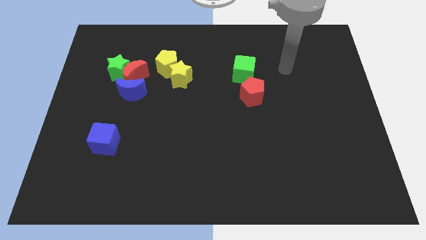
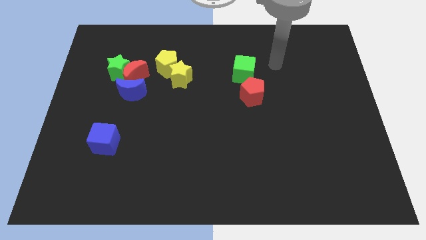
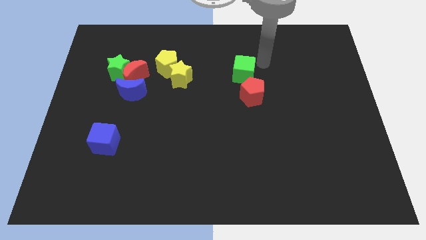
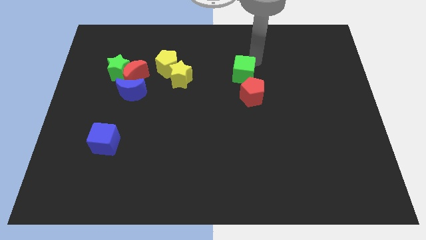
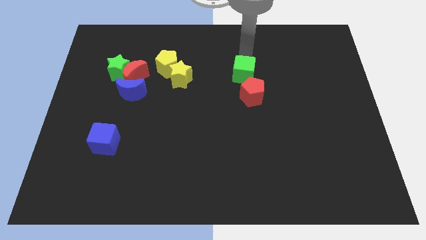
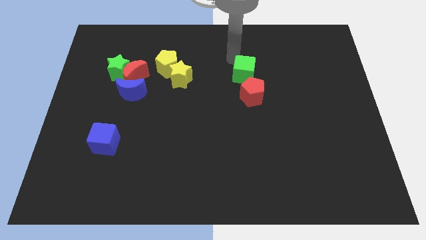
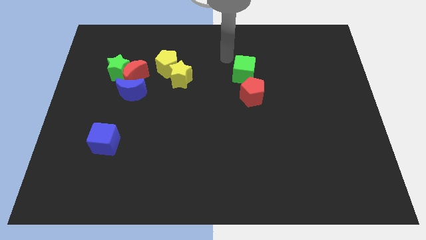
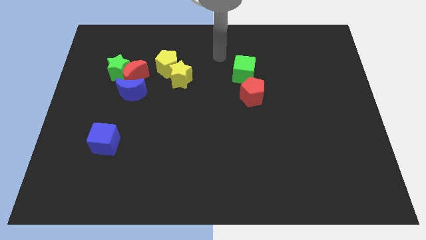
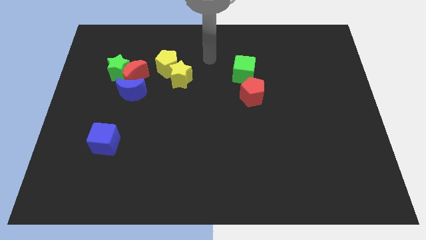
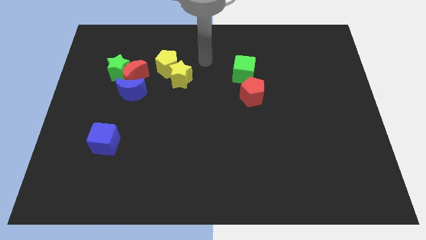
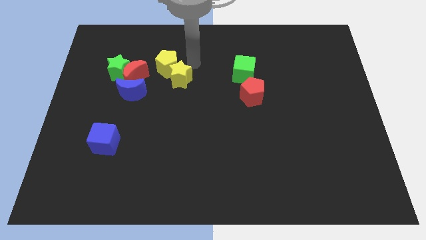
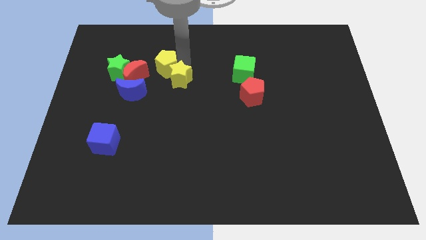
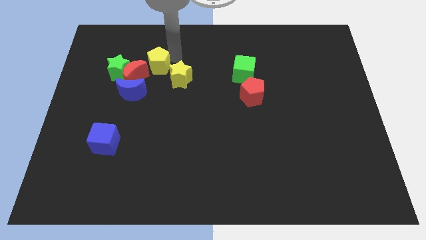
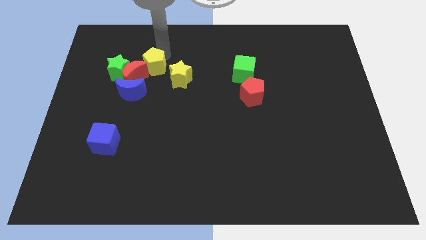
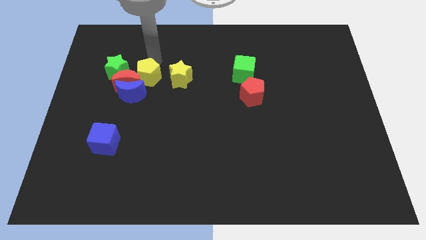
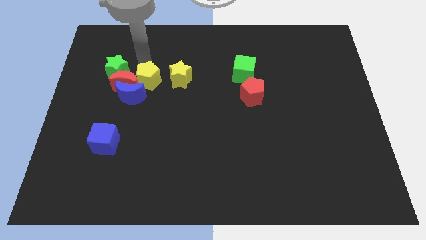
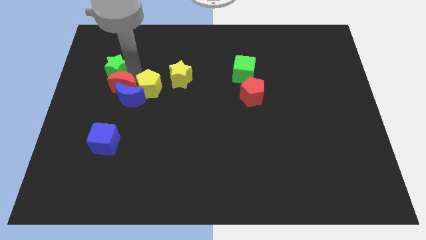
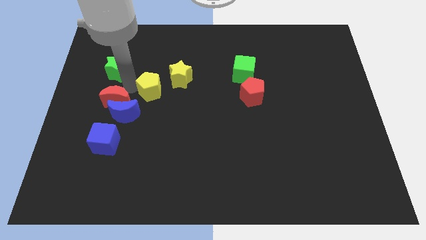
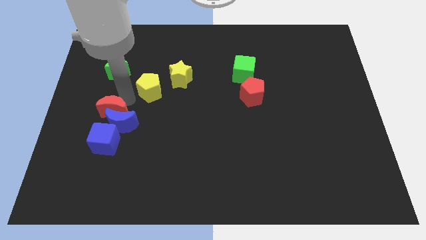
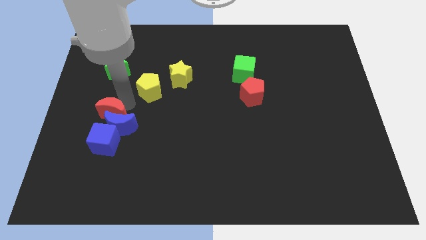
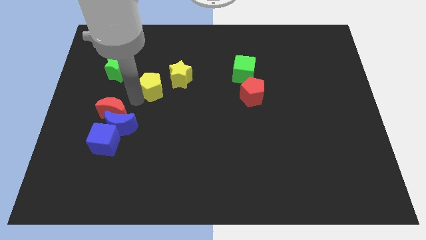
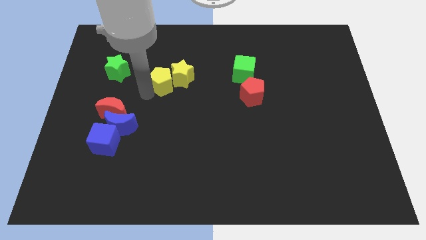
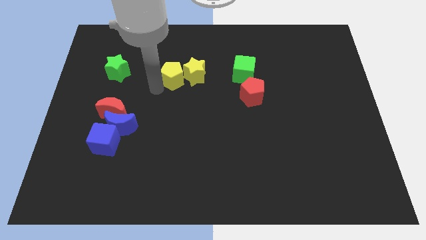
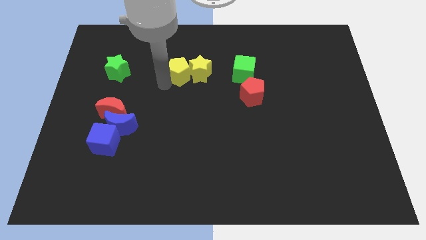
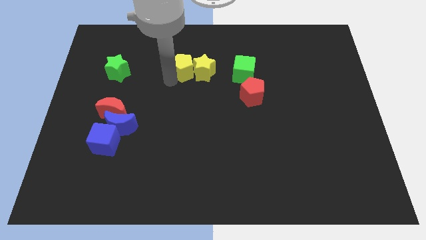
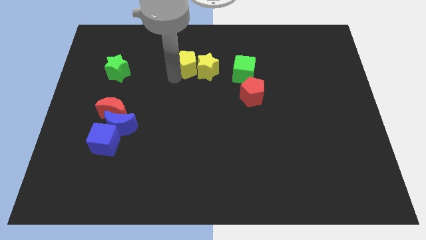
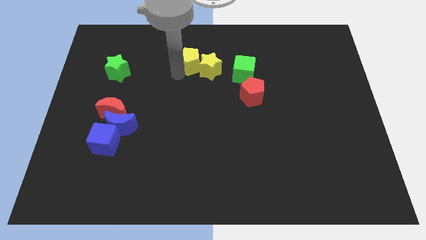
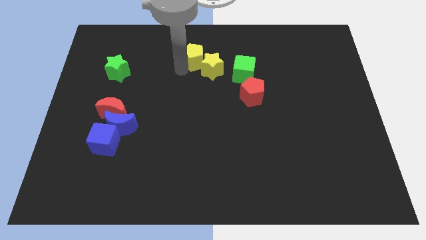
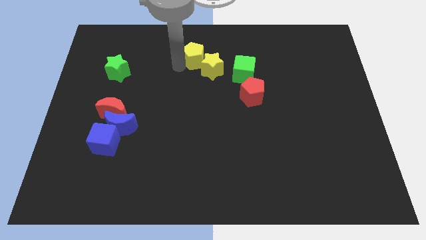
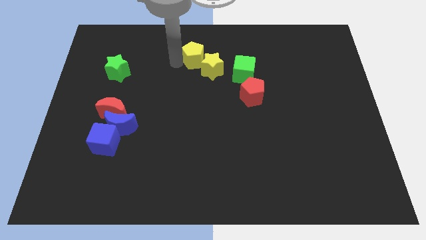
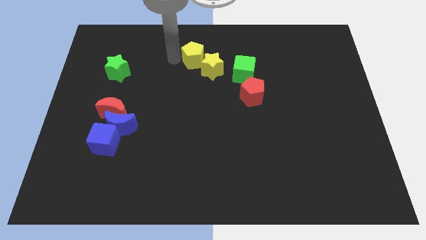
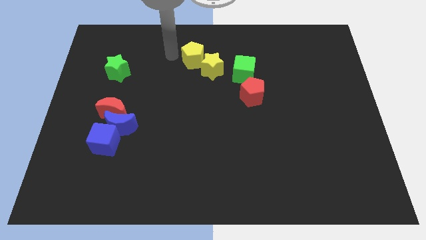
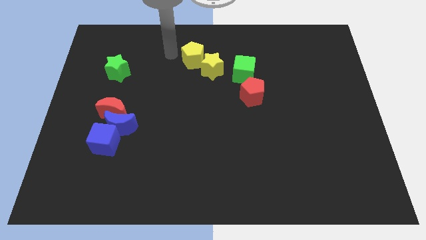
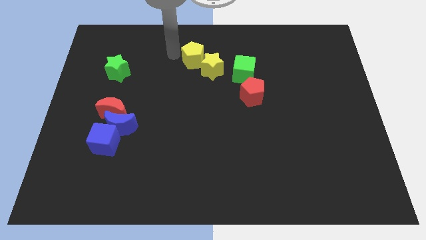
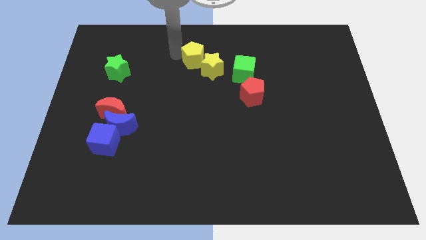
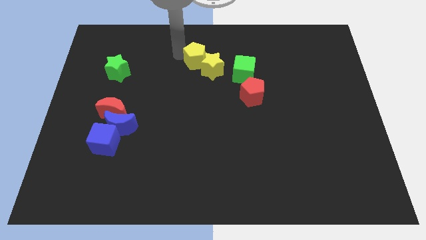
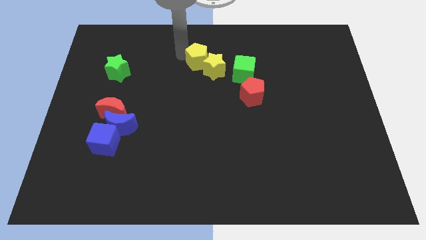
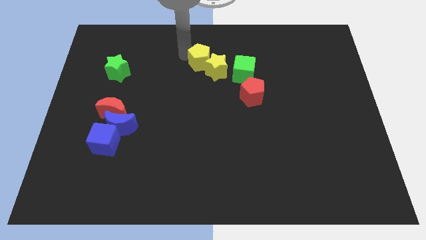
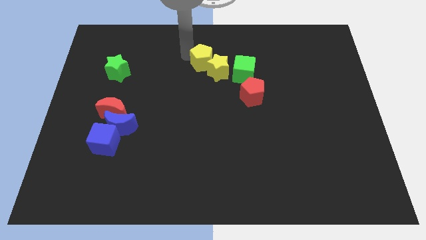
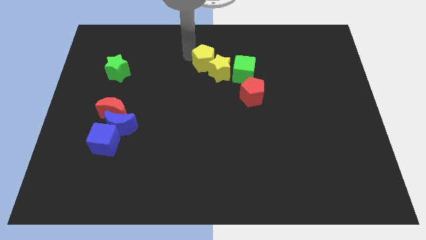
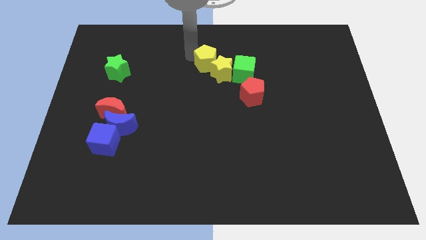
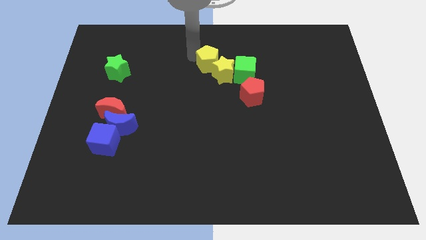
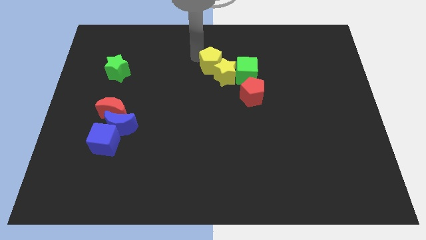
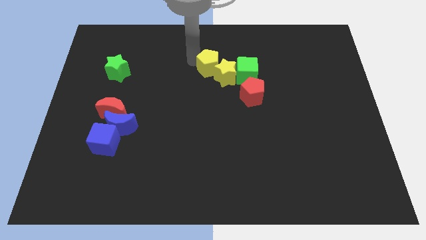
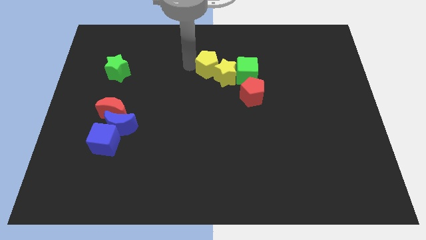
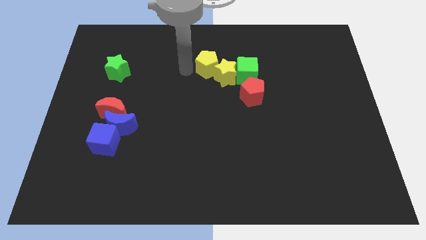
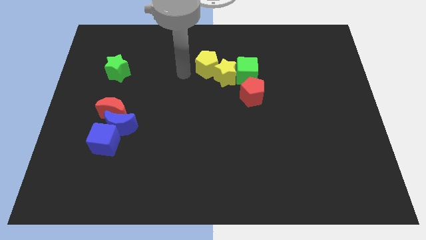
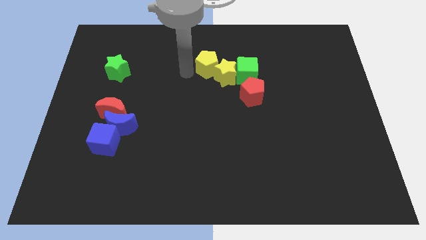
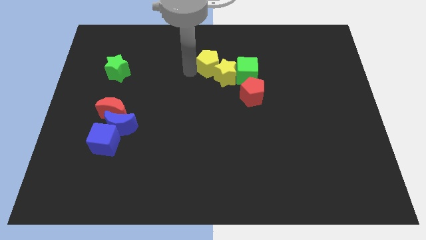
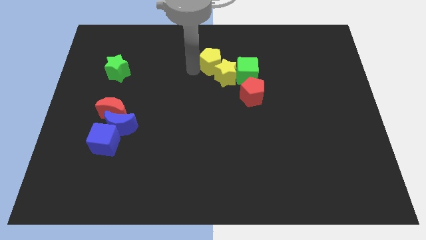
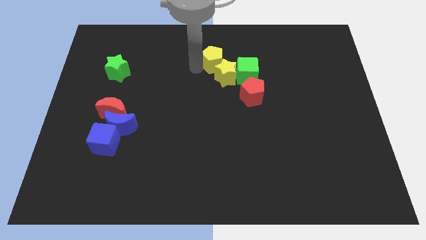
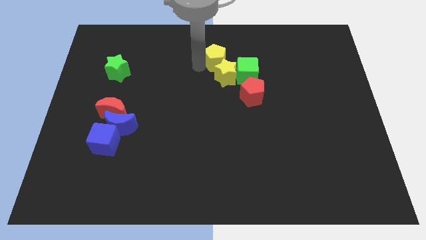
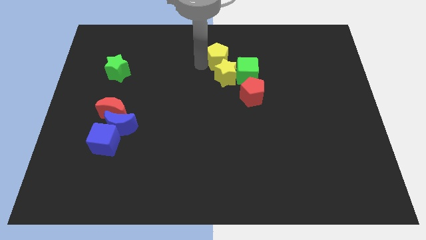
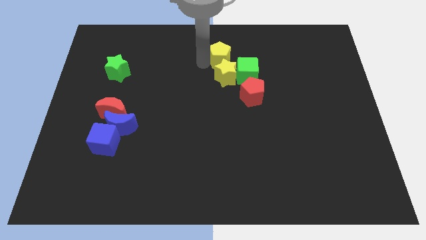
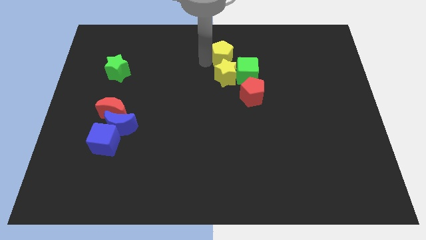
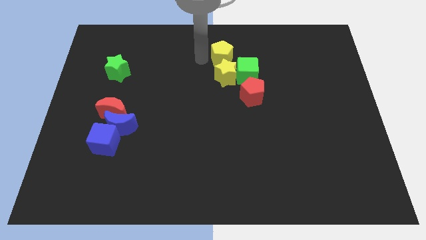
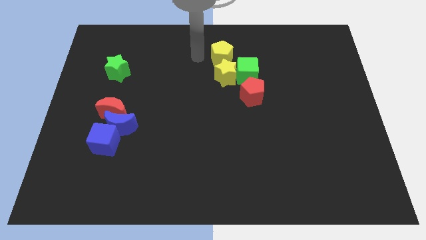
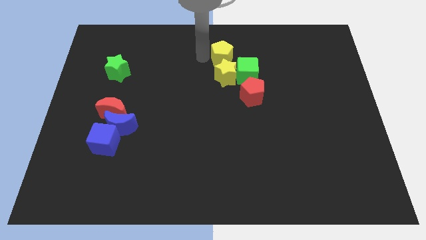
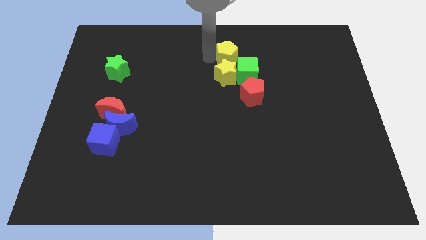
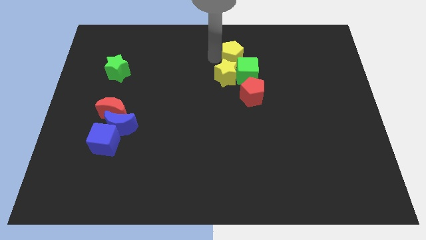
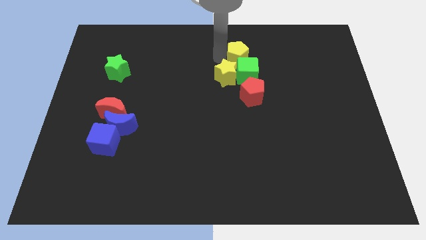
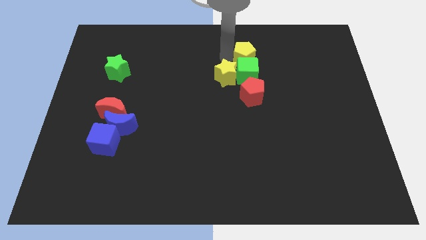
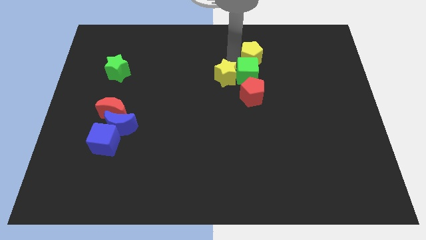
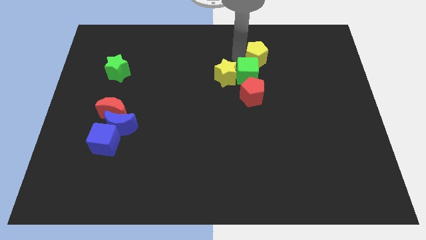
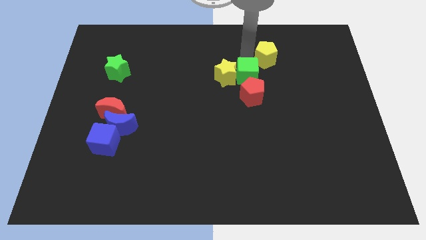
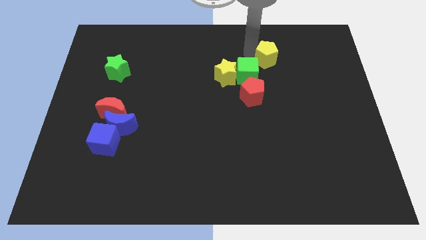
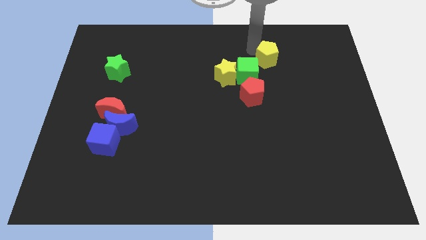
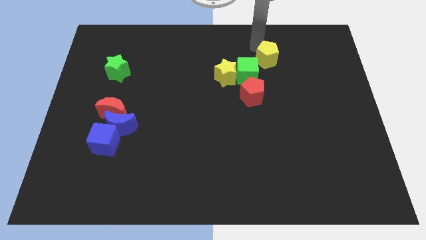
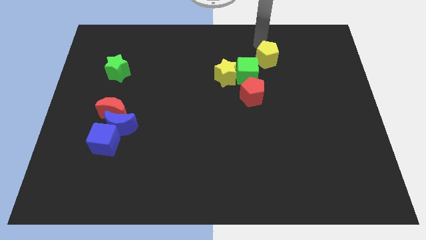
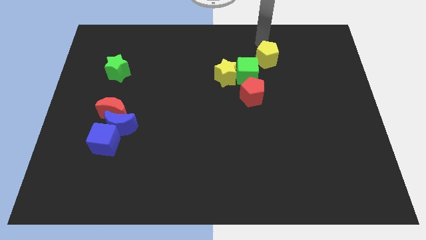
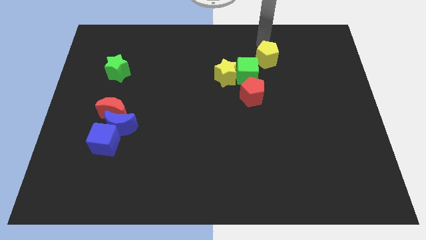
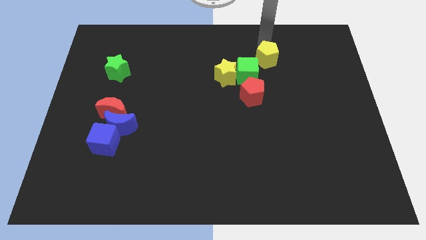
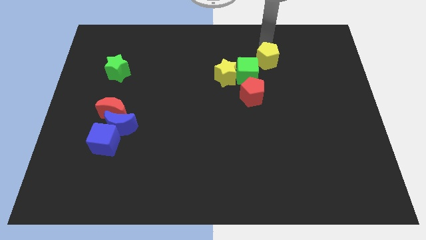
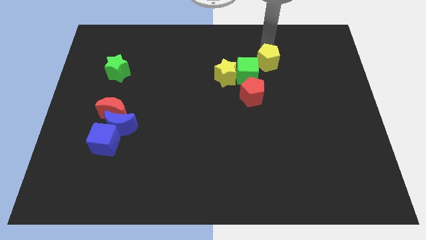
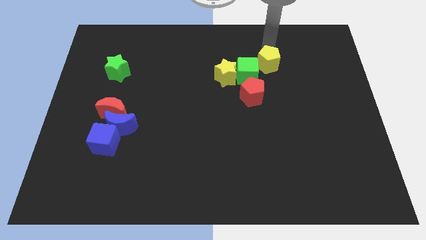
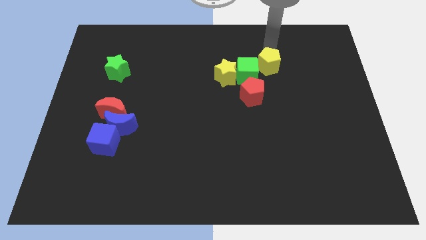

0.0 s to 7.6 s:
move the yellow pentagon to the top right of the red pentagon
